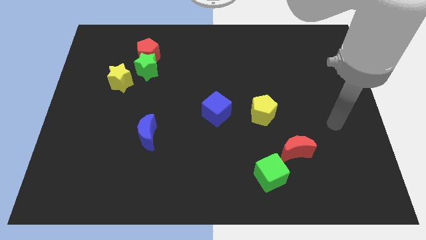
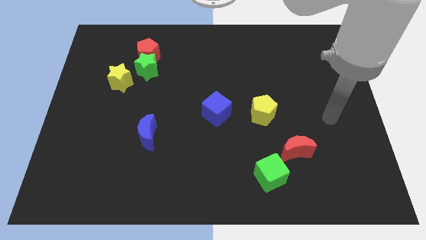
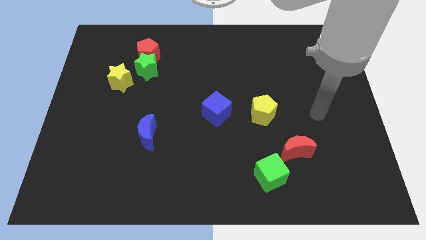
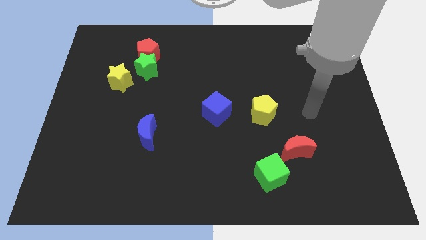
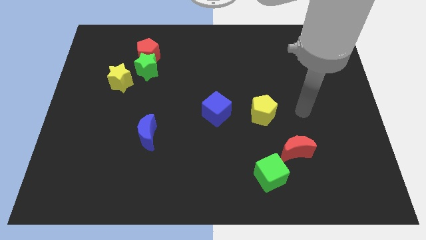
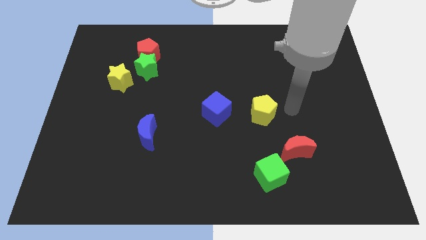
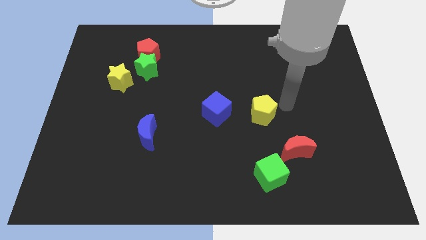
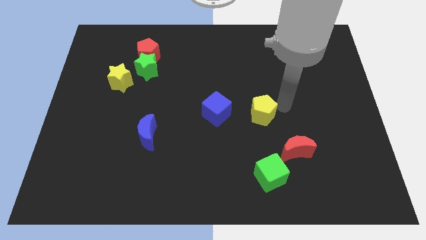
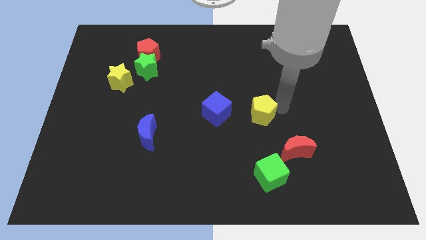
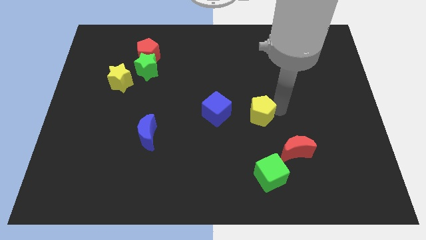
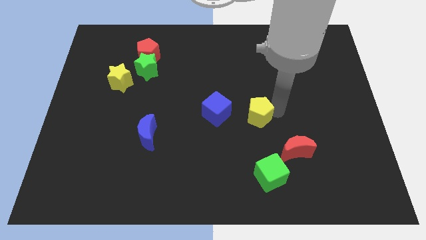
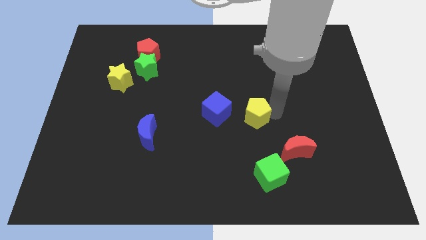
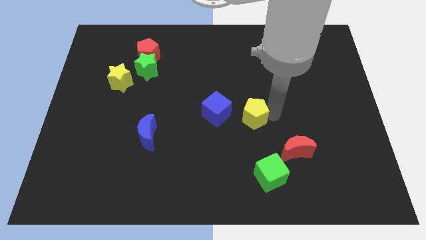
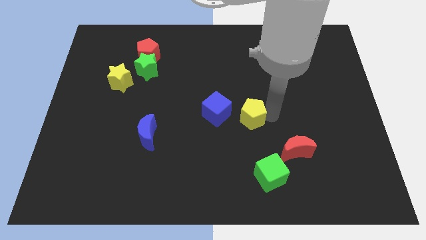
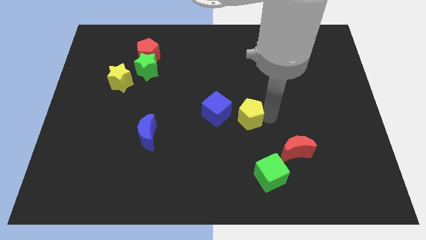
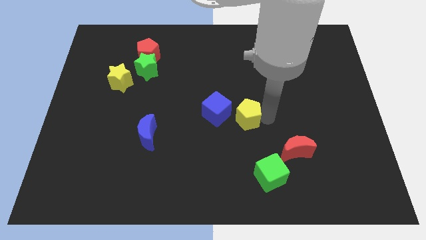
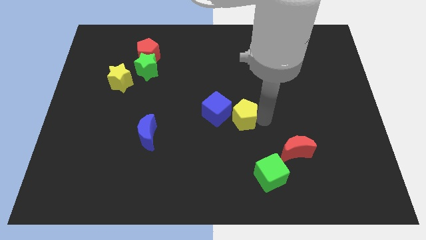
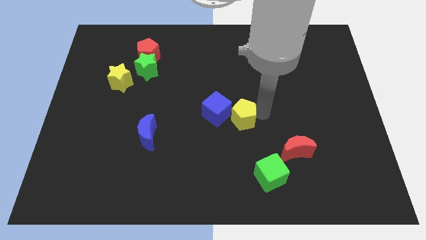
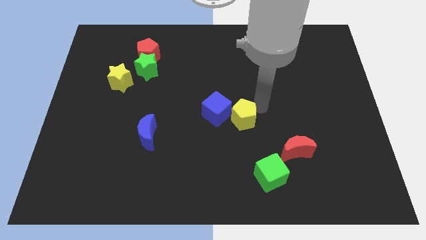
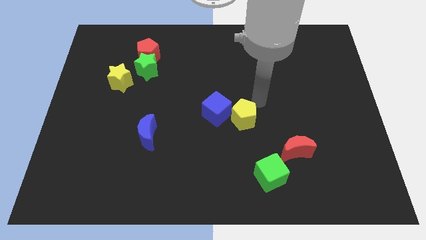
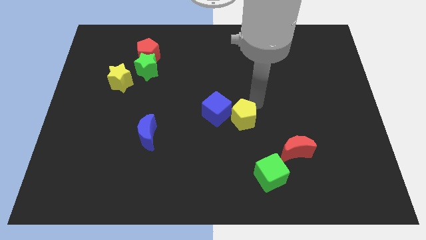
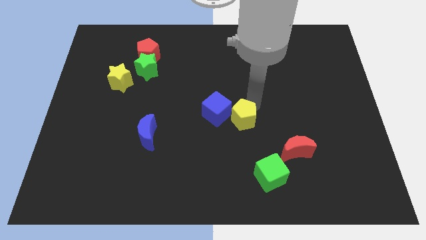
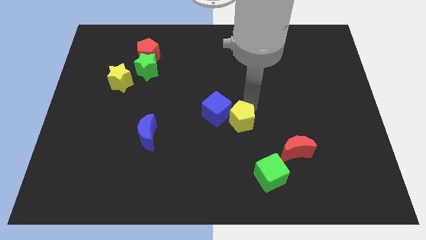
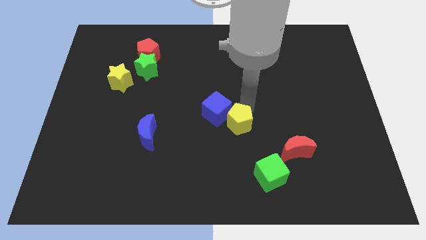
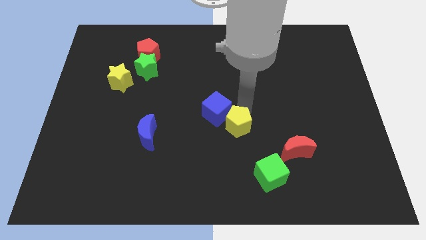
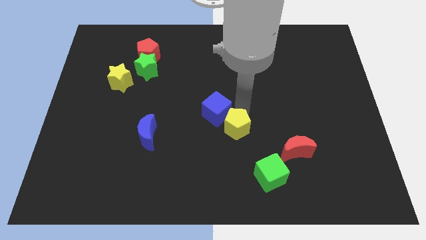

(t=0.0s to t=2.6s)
push the yellow pentagon down and to the left diagonally somewhat

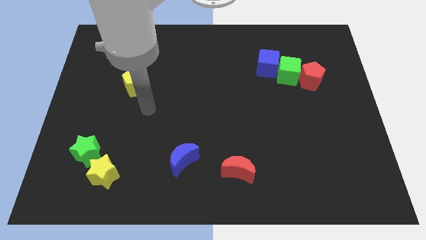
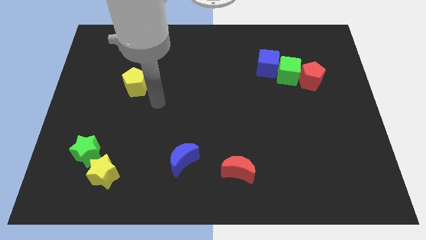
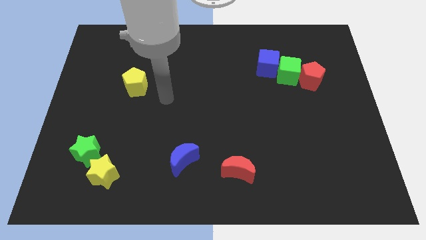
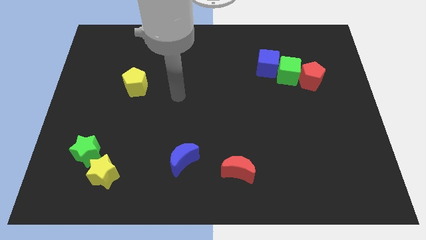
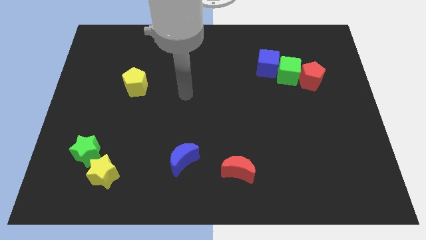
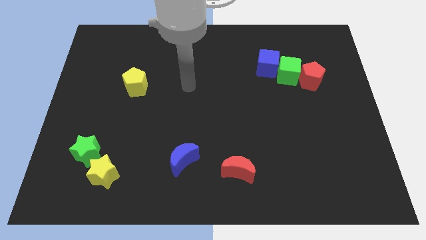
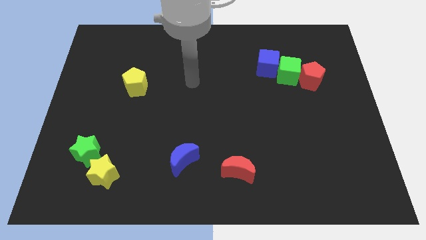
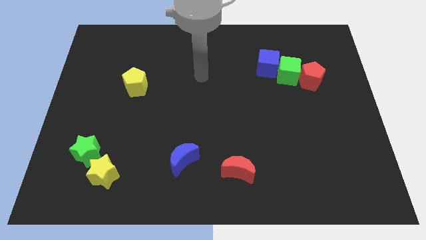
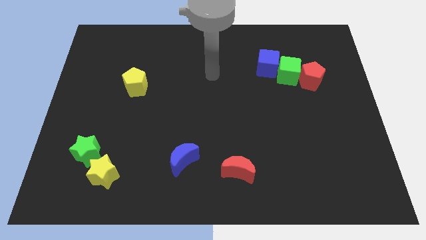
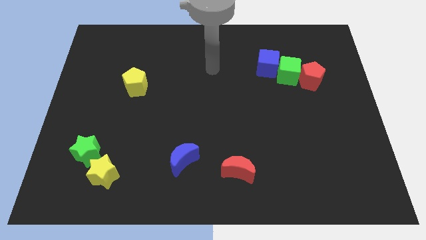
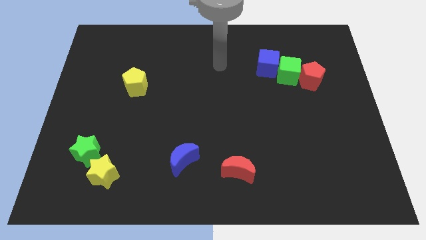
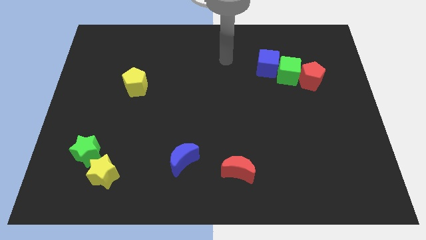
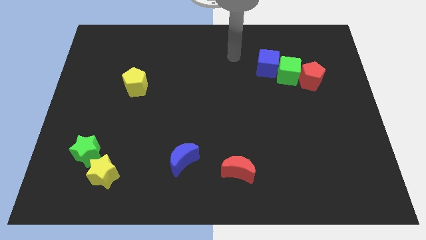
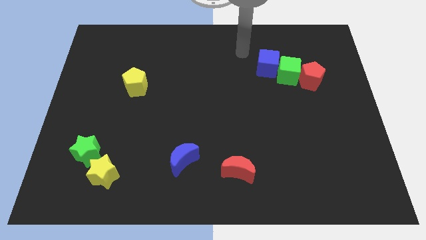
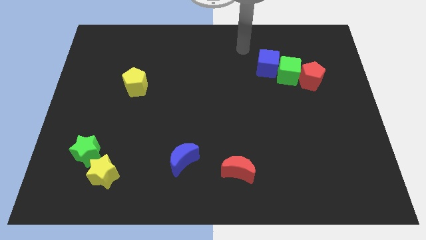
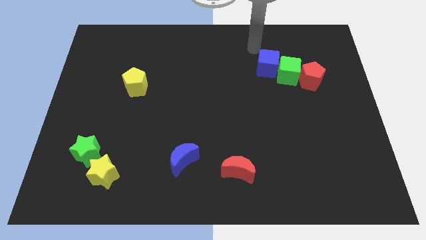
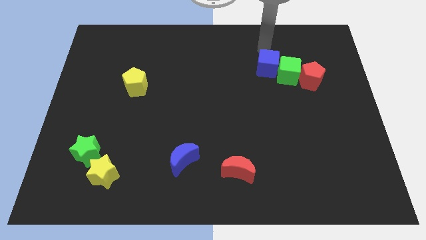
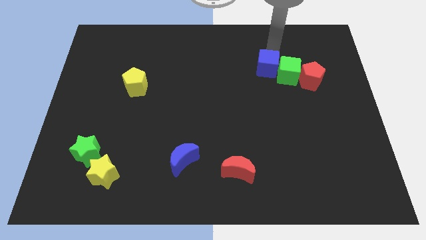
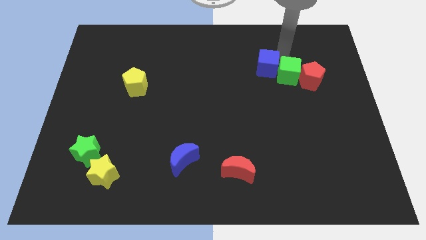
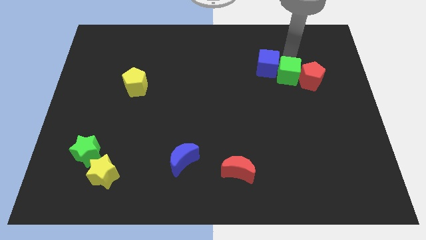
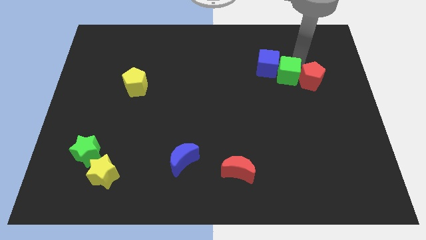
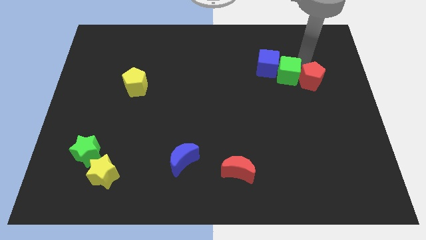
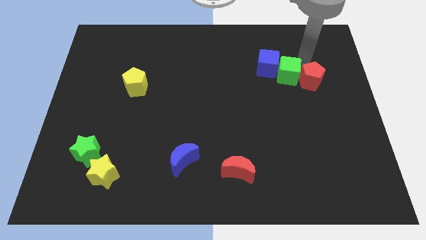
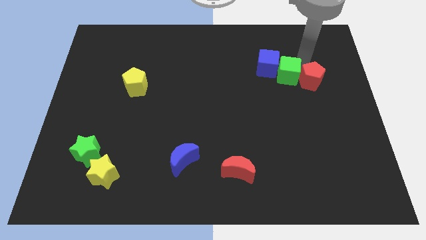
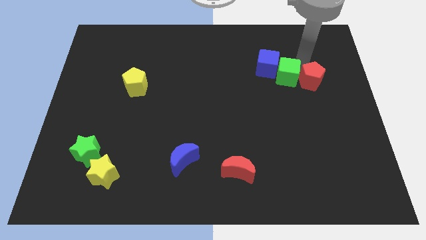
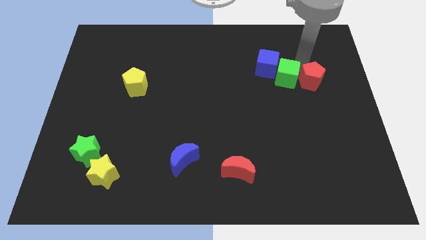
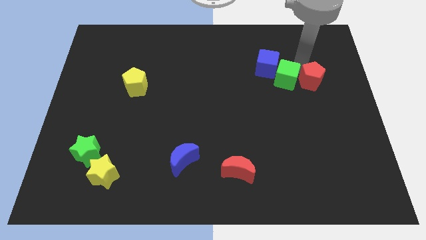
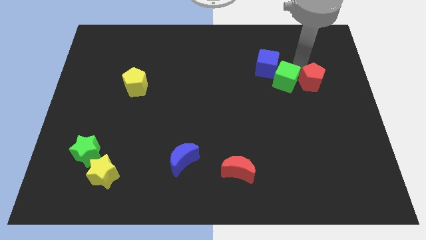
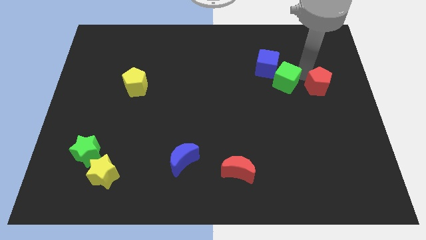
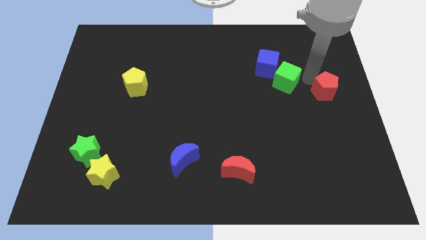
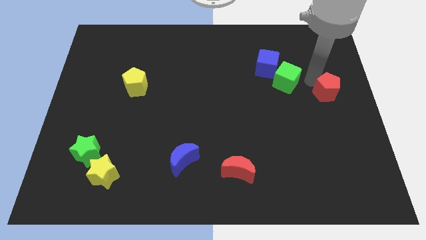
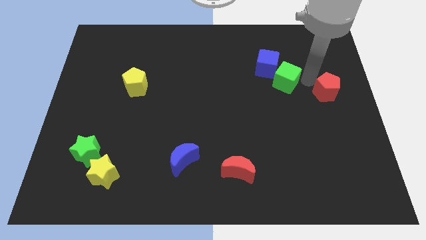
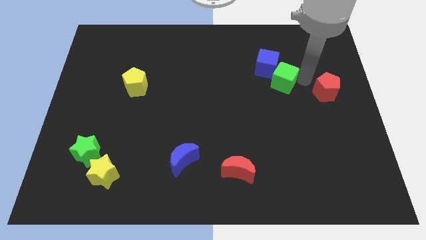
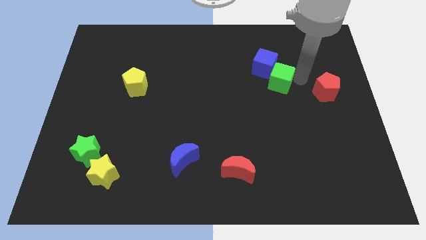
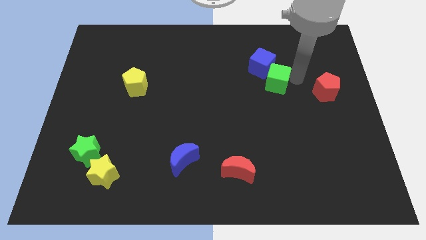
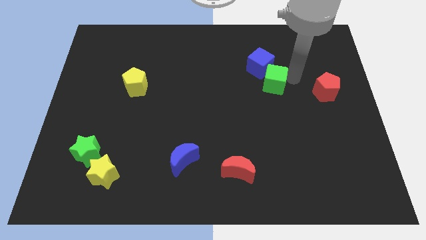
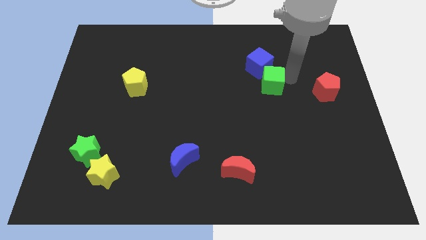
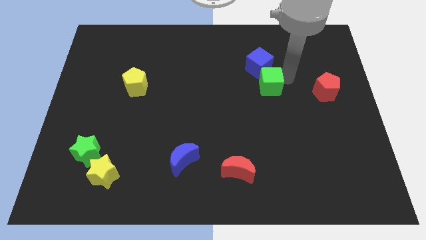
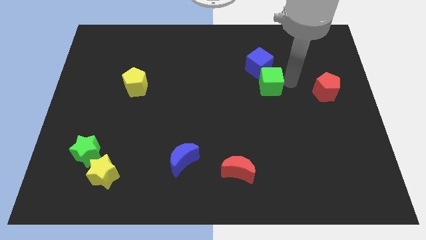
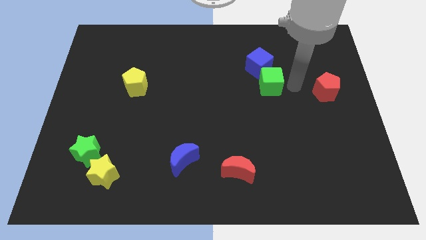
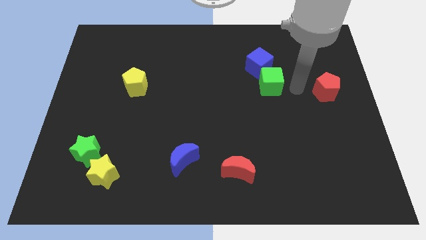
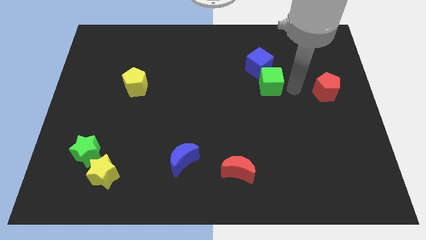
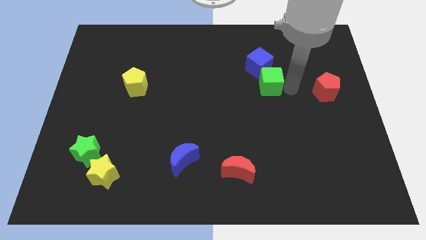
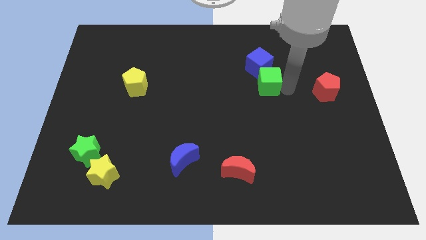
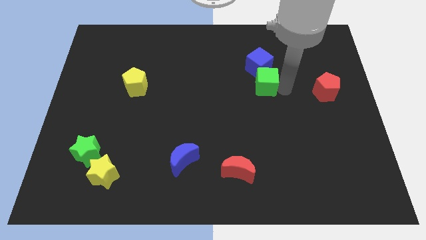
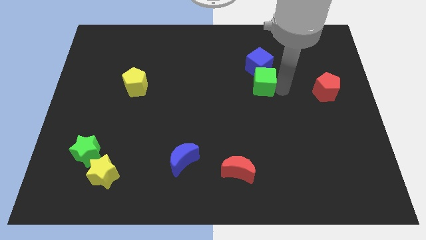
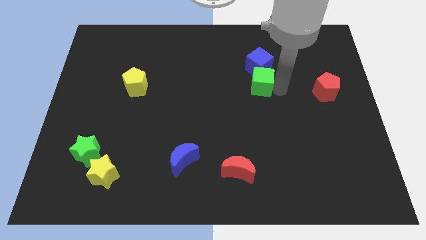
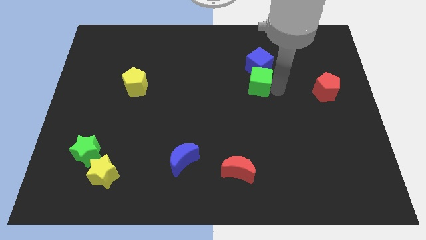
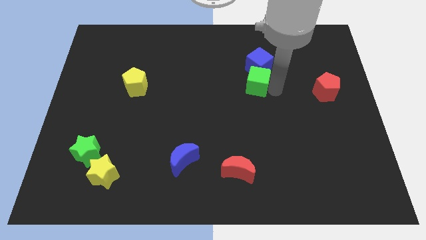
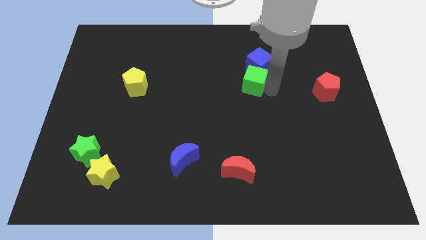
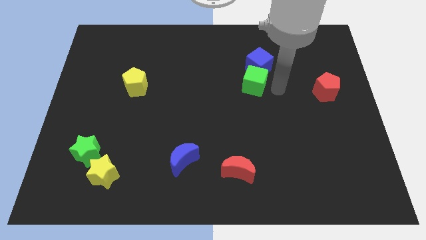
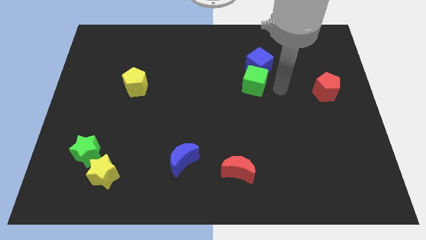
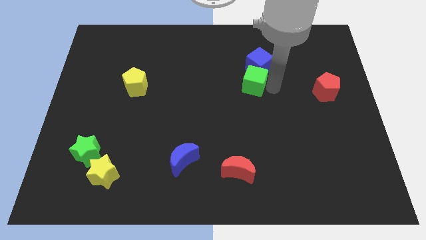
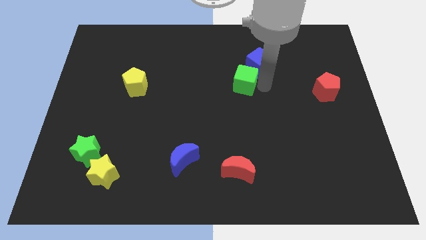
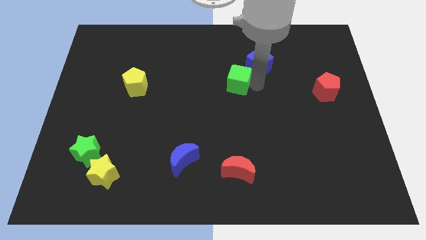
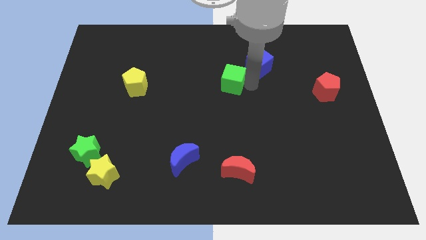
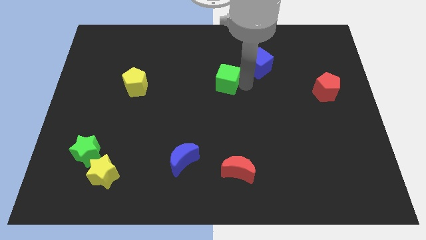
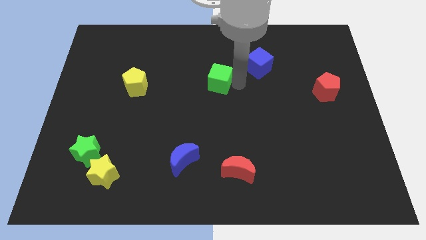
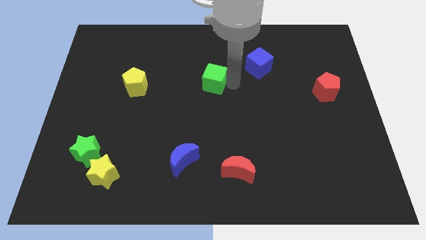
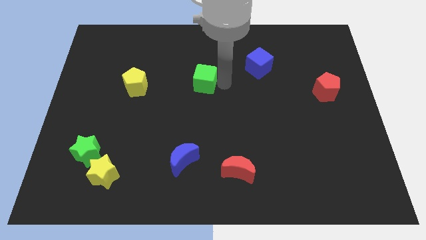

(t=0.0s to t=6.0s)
push the green cube to the left
